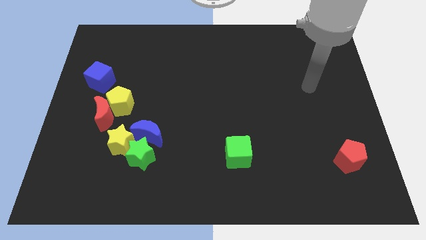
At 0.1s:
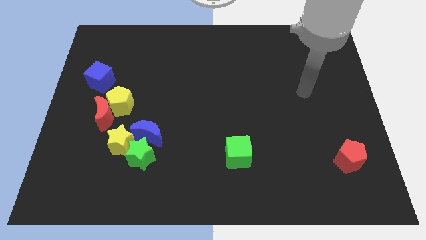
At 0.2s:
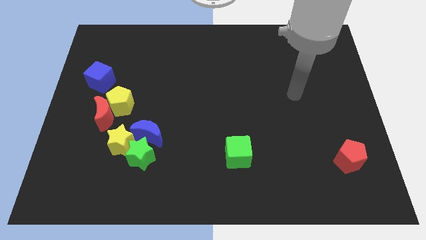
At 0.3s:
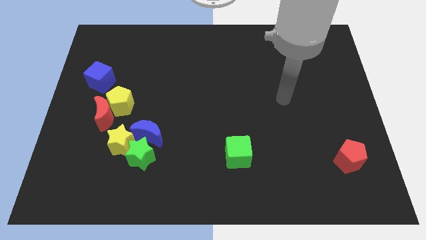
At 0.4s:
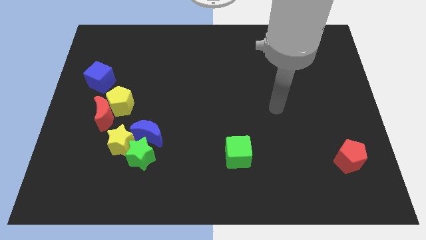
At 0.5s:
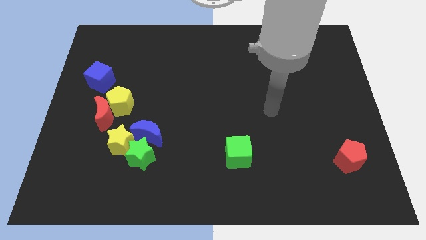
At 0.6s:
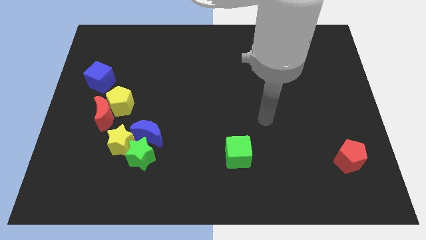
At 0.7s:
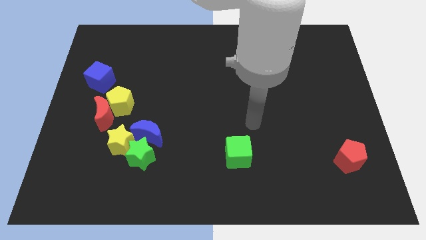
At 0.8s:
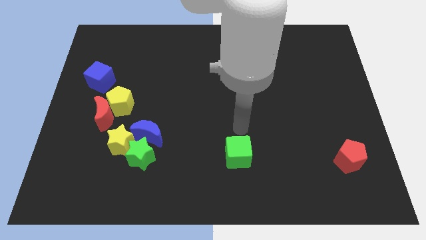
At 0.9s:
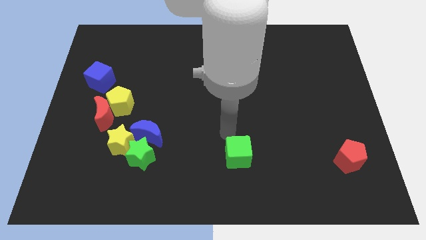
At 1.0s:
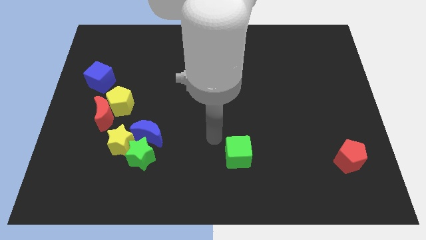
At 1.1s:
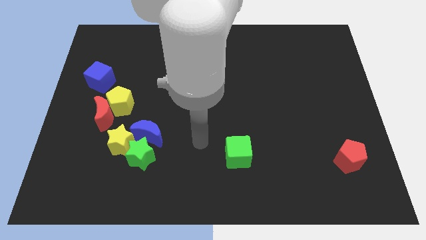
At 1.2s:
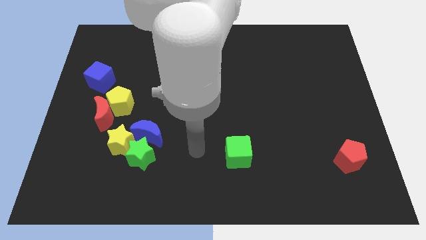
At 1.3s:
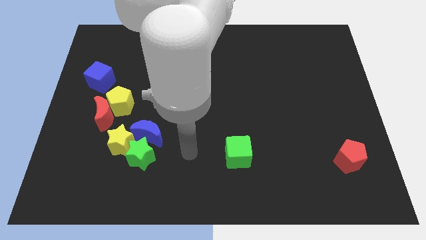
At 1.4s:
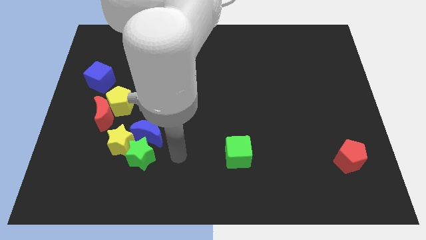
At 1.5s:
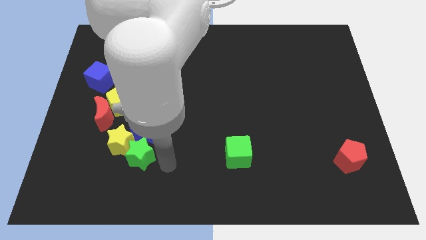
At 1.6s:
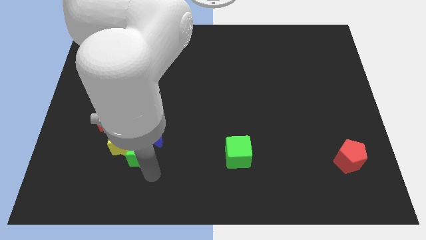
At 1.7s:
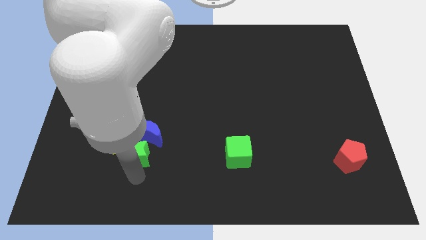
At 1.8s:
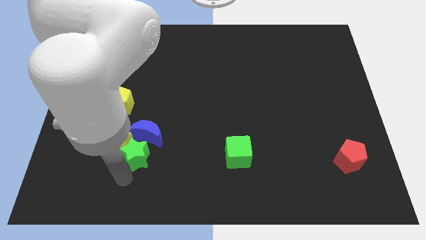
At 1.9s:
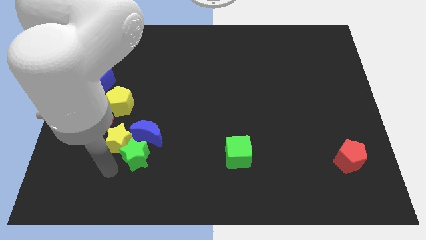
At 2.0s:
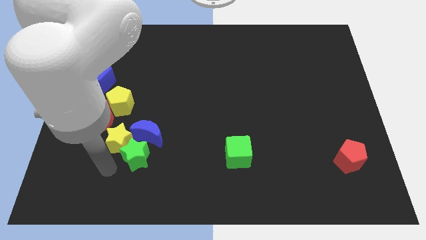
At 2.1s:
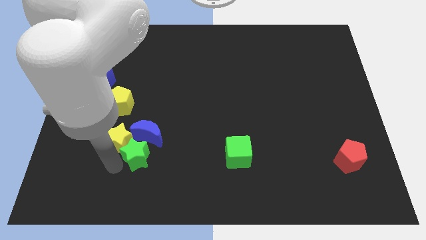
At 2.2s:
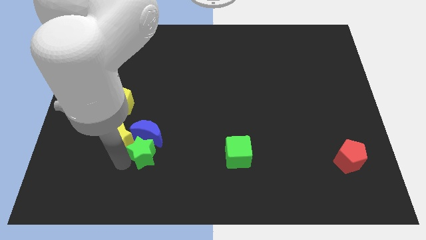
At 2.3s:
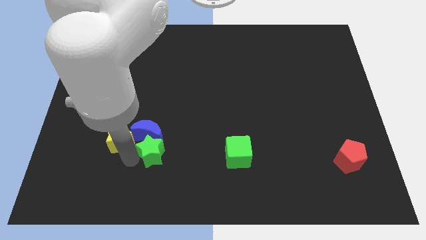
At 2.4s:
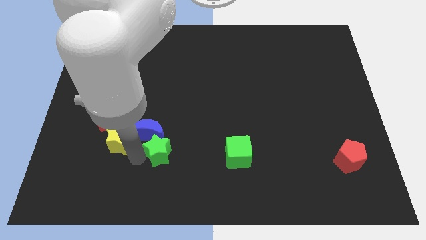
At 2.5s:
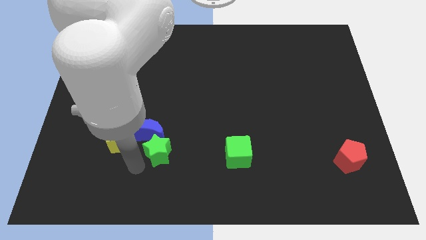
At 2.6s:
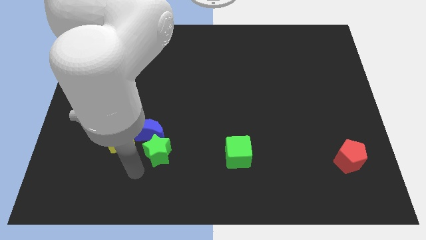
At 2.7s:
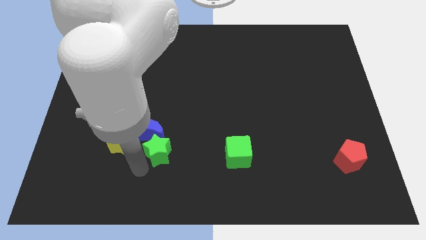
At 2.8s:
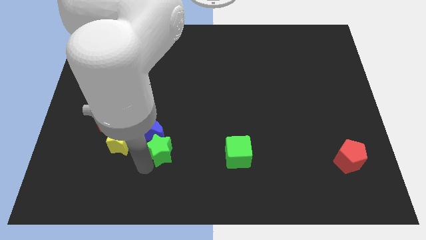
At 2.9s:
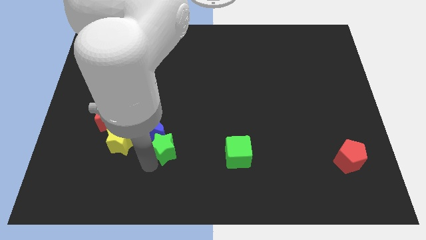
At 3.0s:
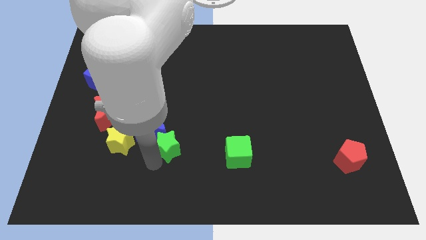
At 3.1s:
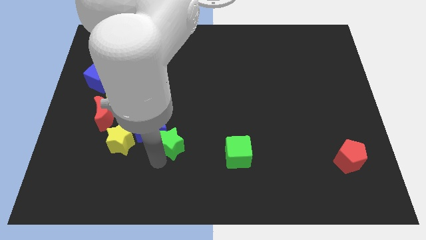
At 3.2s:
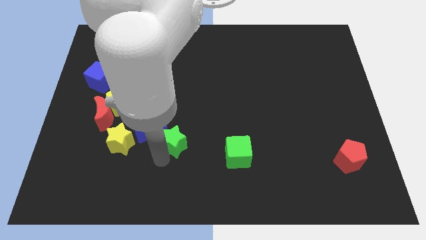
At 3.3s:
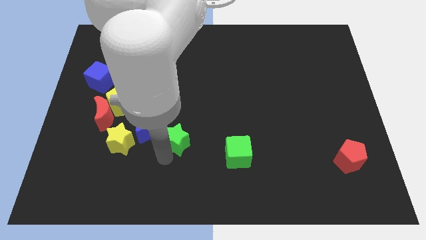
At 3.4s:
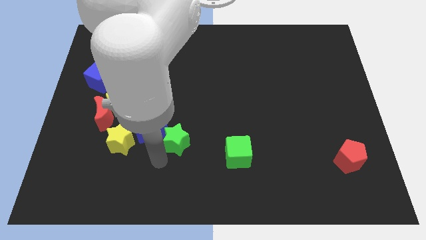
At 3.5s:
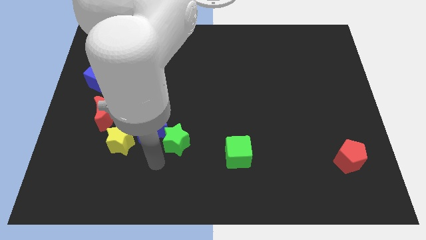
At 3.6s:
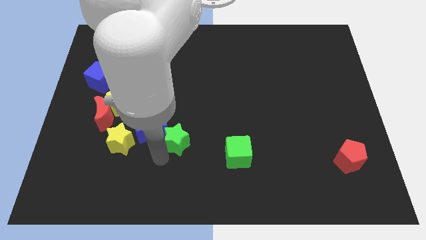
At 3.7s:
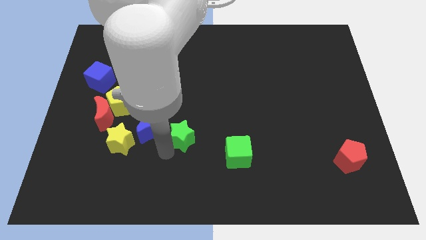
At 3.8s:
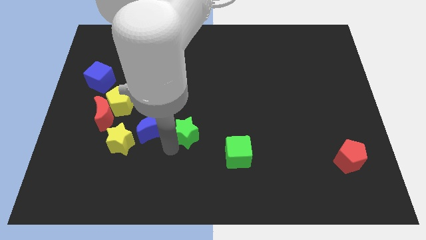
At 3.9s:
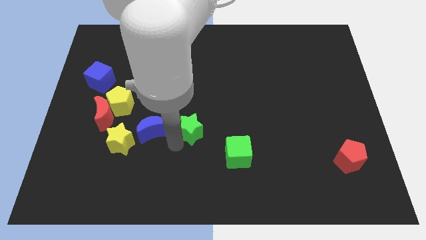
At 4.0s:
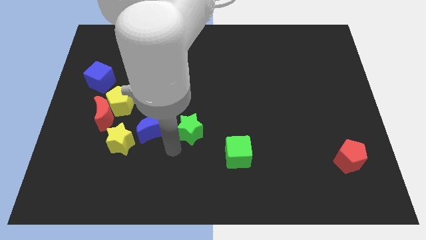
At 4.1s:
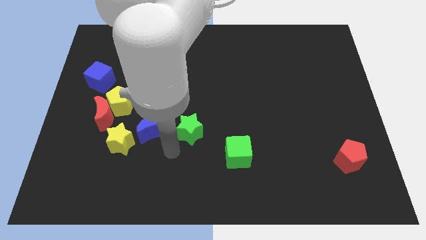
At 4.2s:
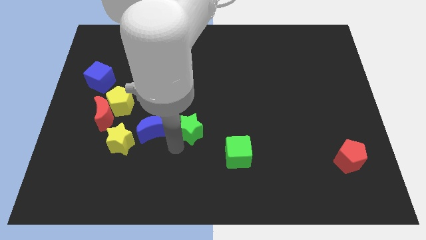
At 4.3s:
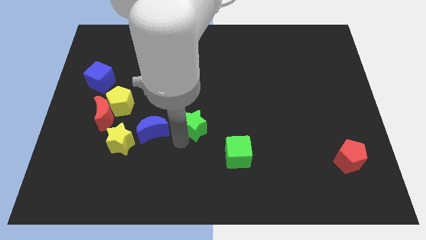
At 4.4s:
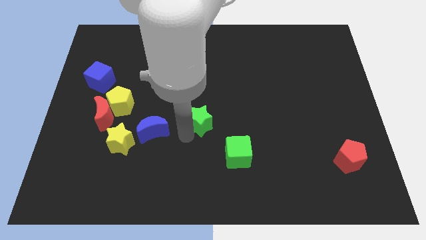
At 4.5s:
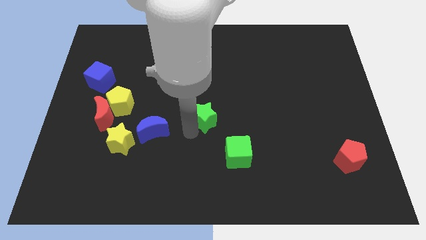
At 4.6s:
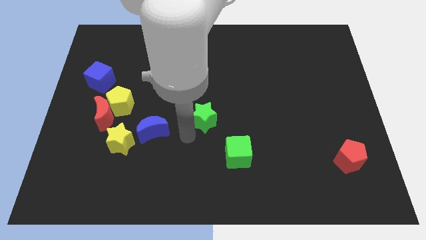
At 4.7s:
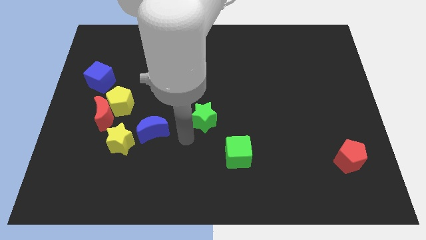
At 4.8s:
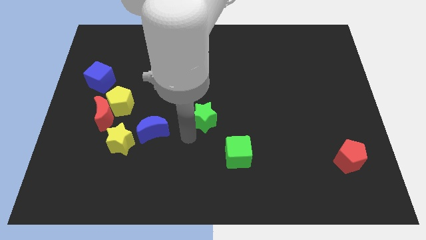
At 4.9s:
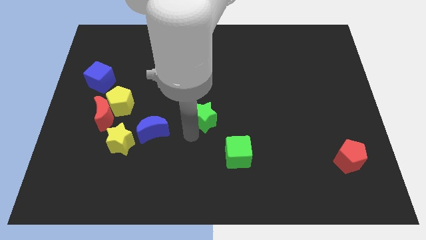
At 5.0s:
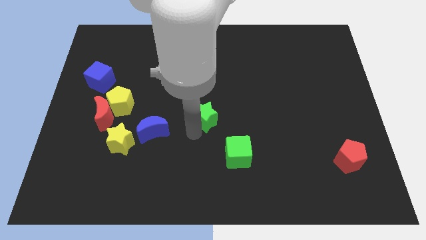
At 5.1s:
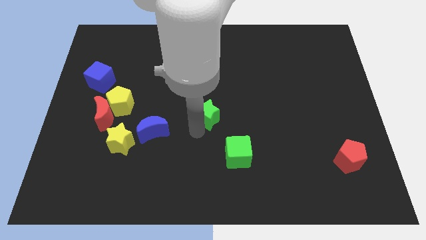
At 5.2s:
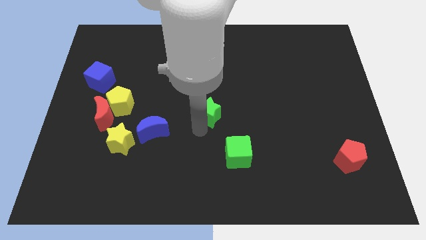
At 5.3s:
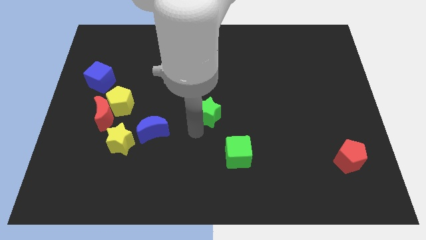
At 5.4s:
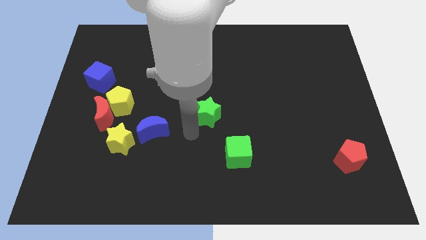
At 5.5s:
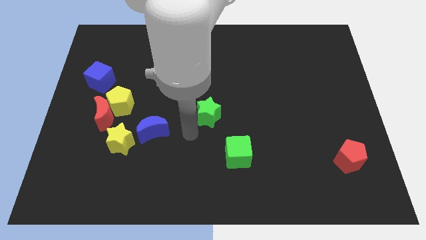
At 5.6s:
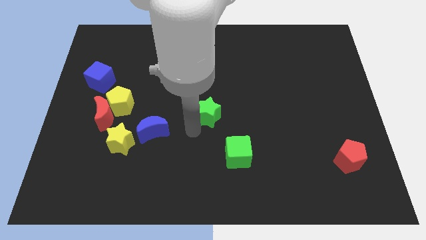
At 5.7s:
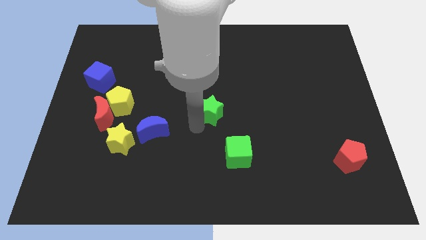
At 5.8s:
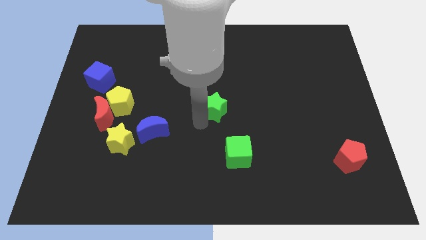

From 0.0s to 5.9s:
move the green star up and then right

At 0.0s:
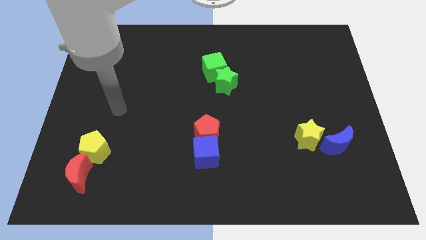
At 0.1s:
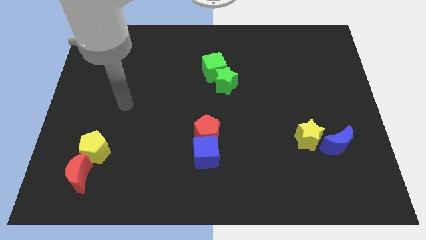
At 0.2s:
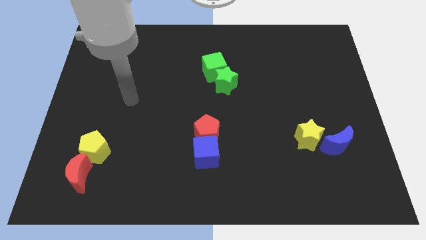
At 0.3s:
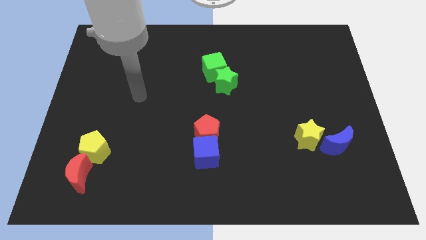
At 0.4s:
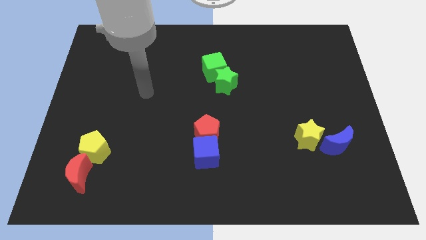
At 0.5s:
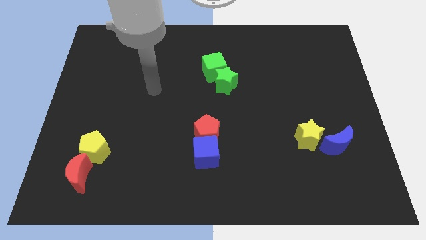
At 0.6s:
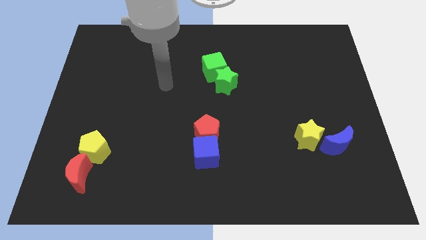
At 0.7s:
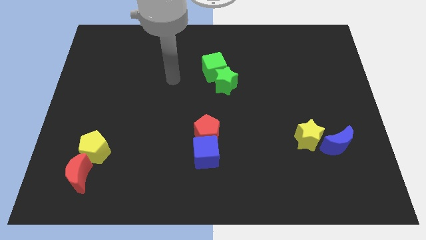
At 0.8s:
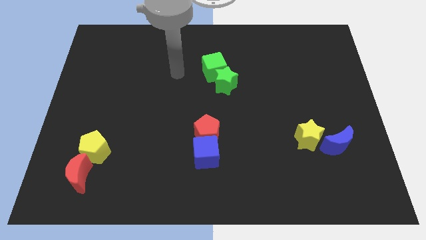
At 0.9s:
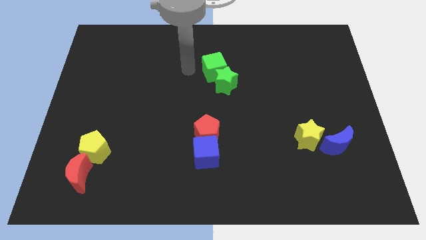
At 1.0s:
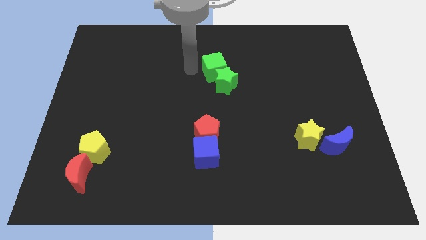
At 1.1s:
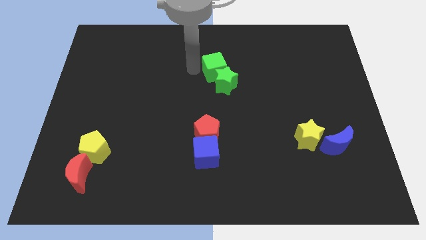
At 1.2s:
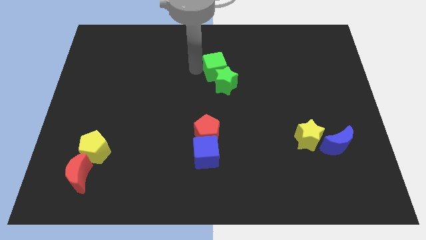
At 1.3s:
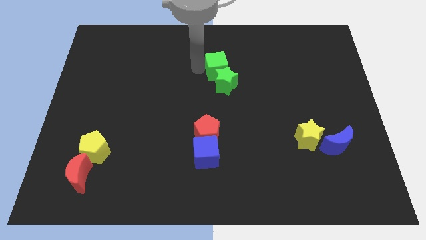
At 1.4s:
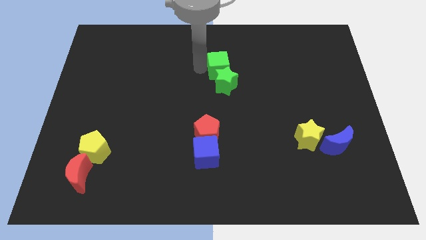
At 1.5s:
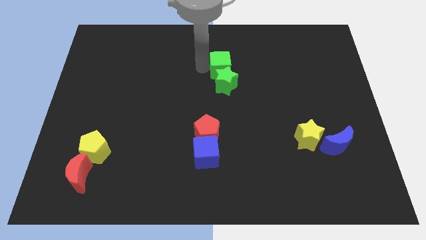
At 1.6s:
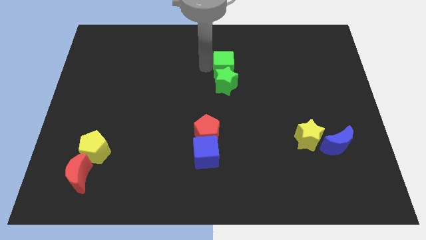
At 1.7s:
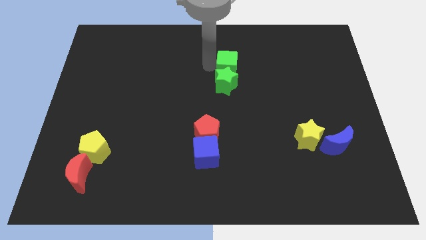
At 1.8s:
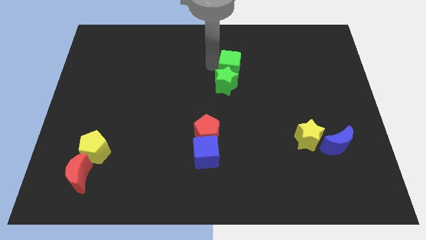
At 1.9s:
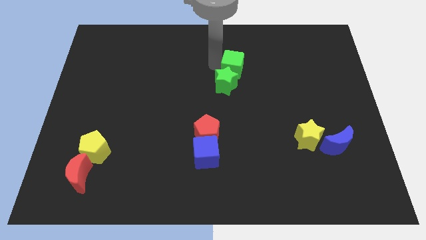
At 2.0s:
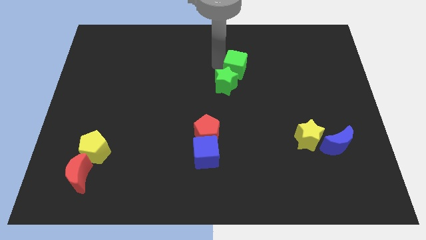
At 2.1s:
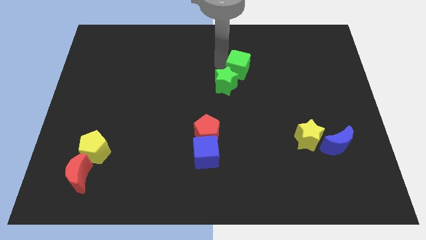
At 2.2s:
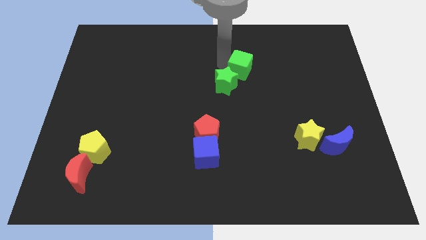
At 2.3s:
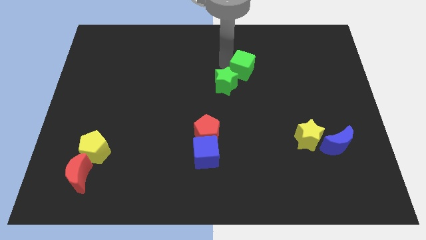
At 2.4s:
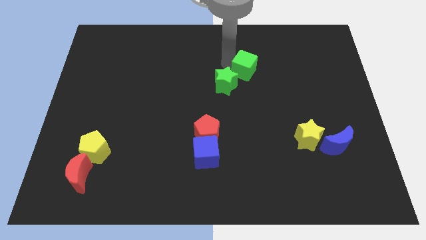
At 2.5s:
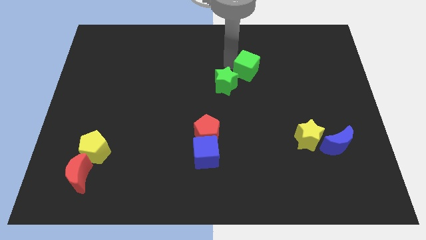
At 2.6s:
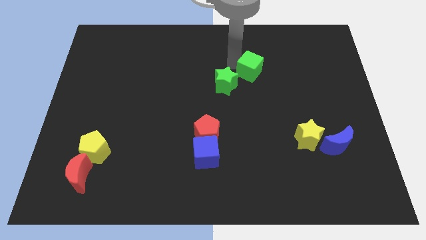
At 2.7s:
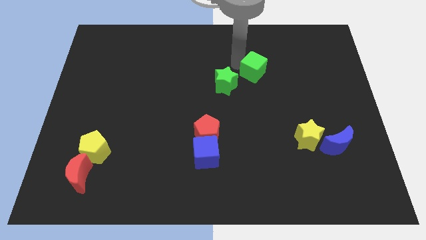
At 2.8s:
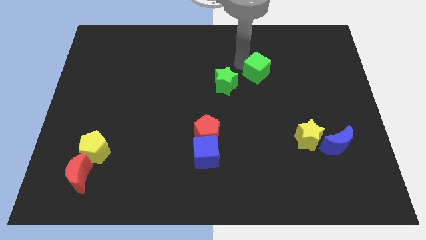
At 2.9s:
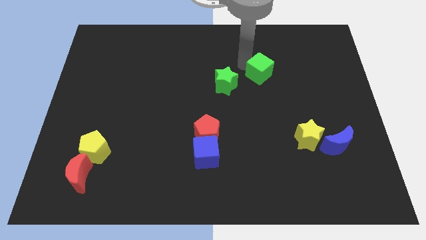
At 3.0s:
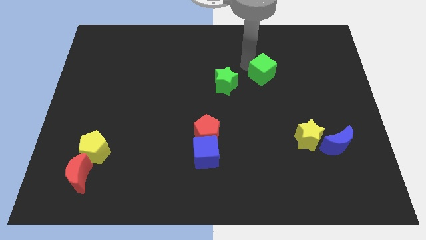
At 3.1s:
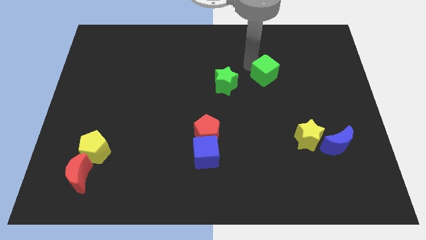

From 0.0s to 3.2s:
move the green cube downwards and right somewhat
